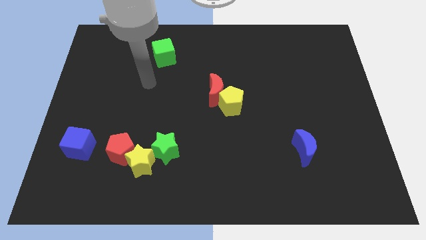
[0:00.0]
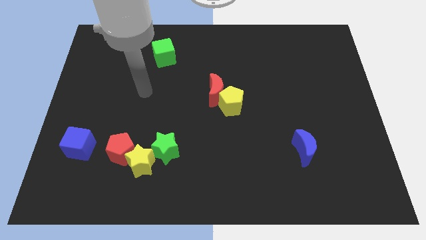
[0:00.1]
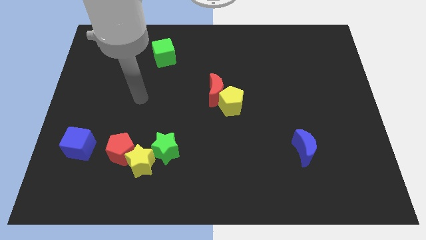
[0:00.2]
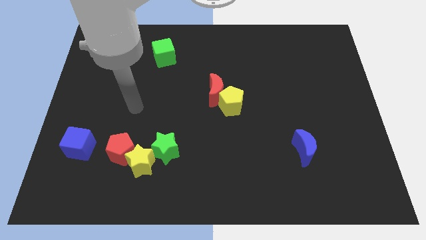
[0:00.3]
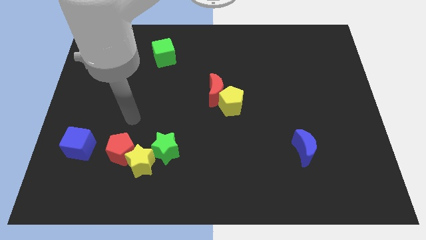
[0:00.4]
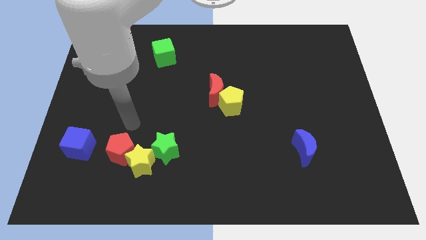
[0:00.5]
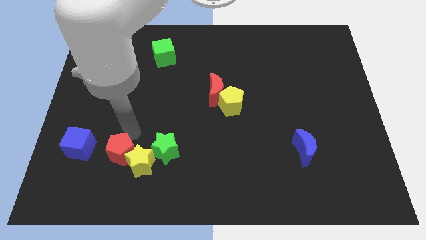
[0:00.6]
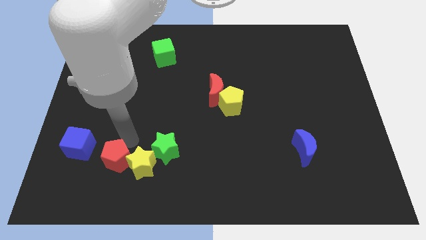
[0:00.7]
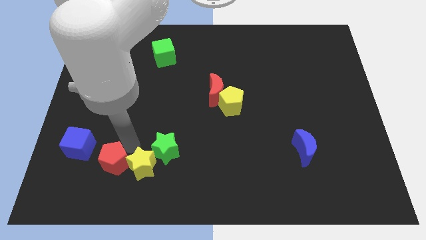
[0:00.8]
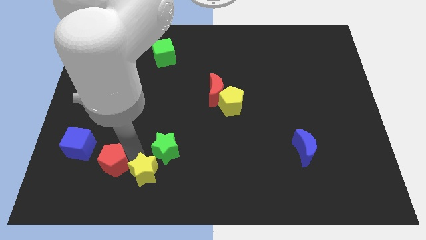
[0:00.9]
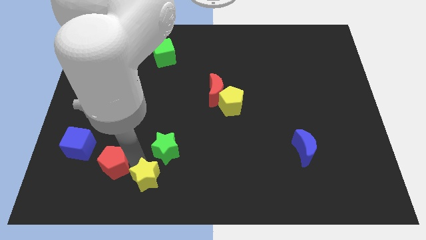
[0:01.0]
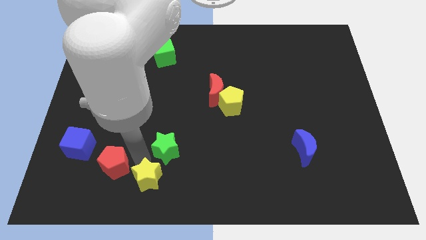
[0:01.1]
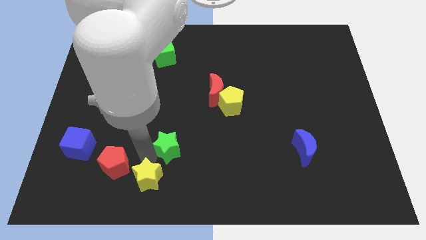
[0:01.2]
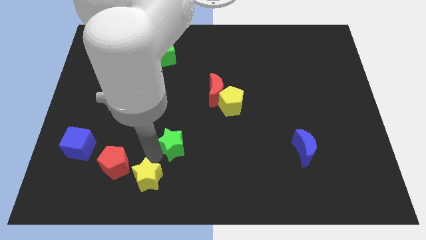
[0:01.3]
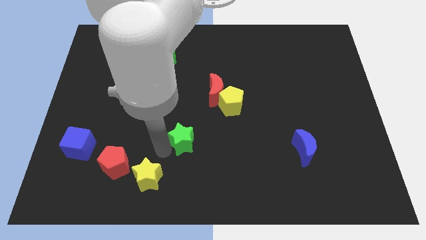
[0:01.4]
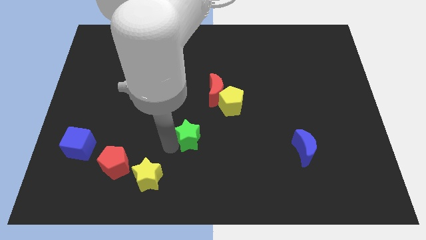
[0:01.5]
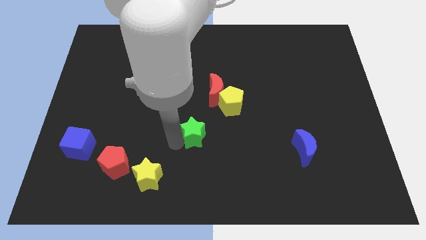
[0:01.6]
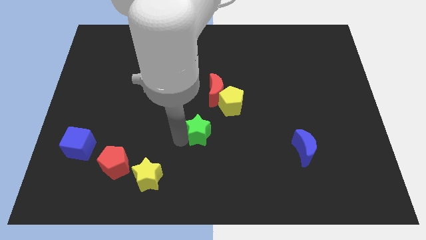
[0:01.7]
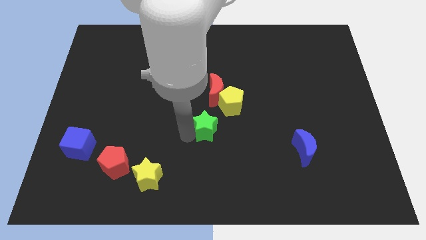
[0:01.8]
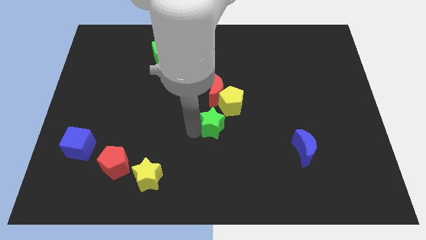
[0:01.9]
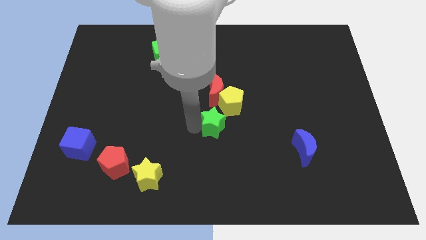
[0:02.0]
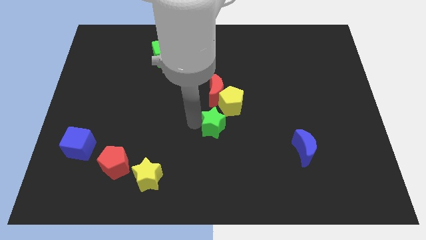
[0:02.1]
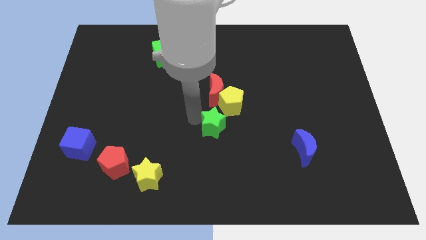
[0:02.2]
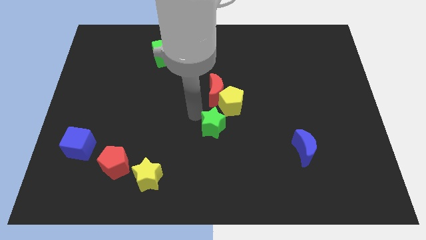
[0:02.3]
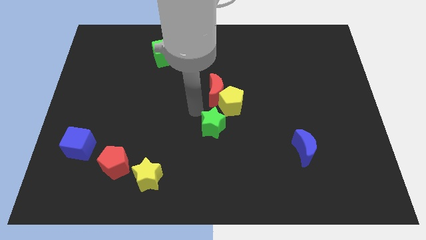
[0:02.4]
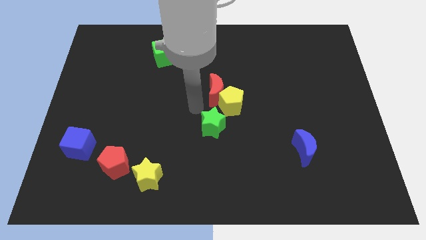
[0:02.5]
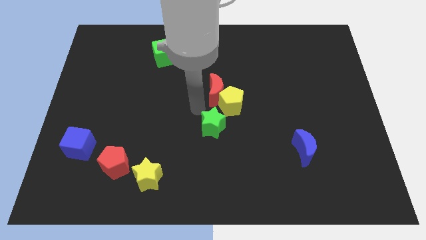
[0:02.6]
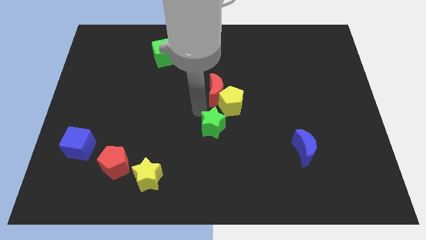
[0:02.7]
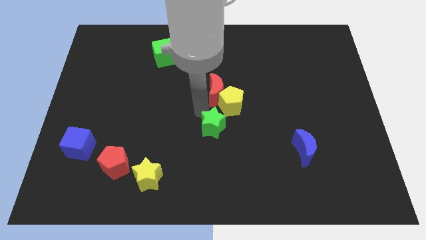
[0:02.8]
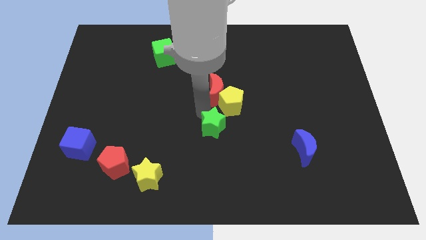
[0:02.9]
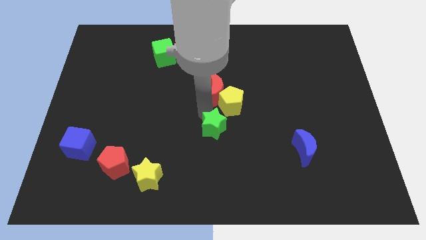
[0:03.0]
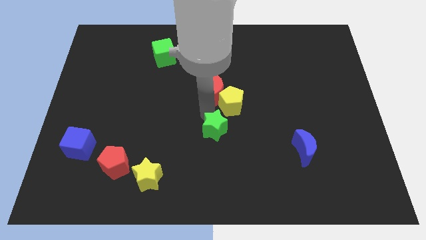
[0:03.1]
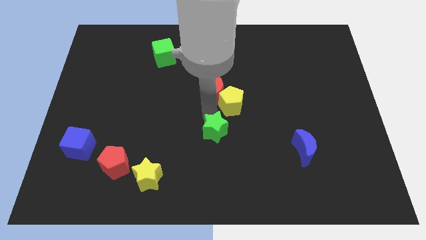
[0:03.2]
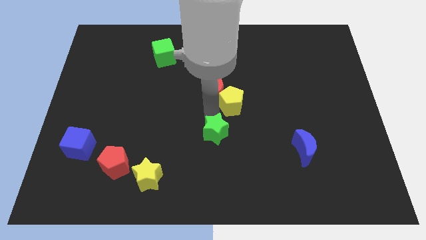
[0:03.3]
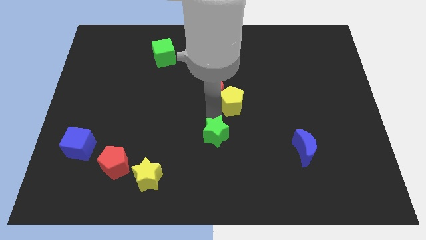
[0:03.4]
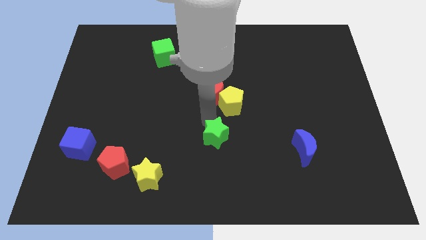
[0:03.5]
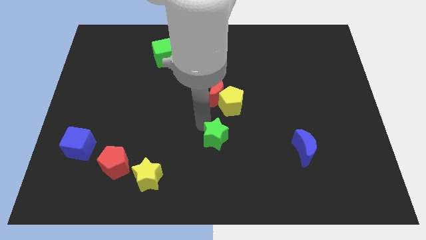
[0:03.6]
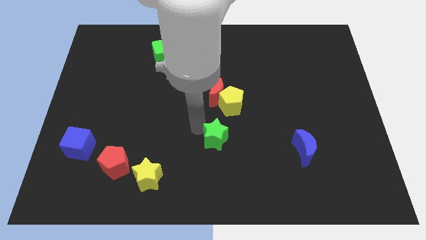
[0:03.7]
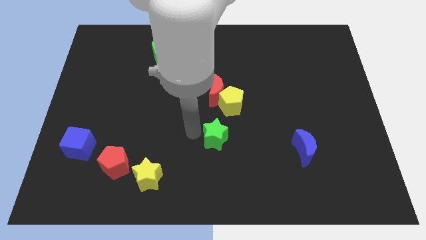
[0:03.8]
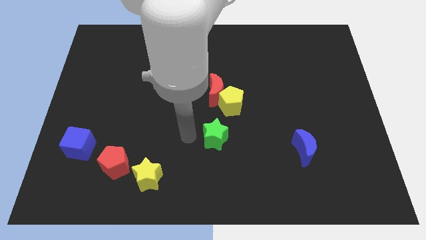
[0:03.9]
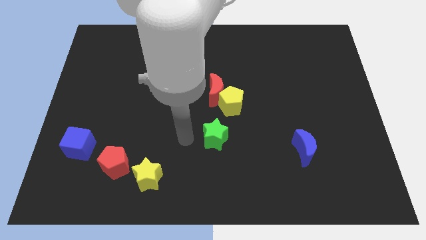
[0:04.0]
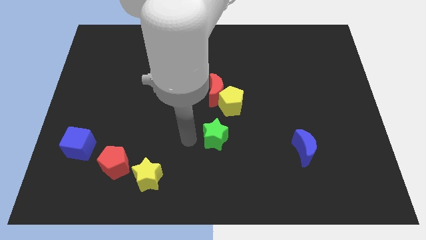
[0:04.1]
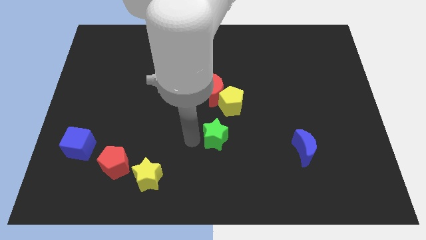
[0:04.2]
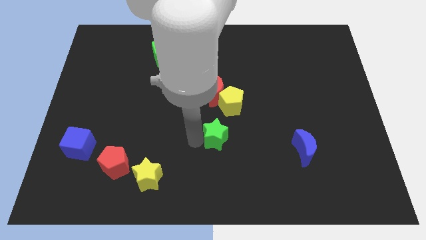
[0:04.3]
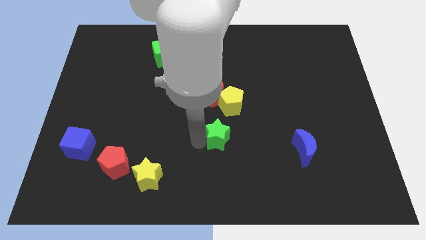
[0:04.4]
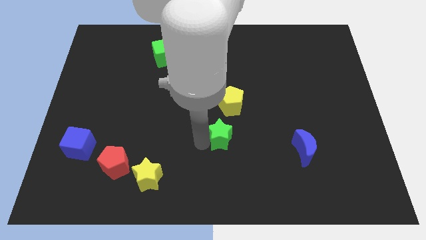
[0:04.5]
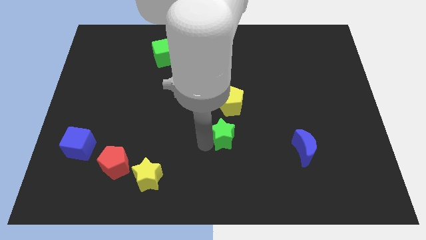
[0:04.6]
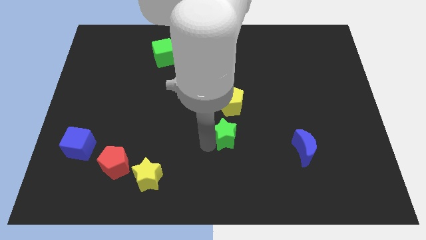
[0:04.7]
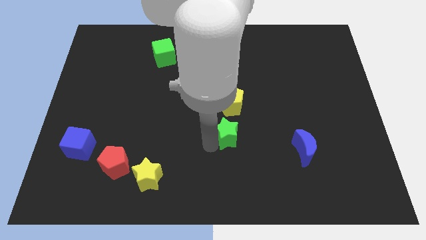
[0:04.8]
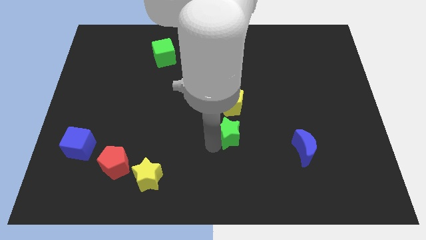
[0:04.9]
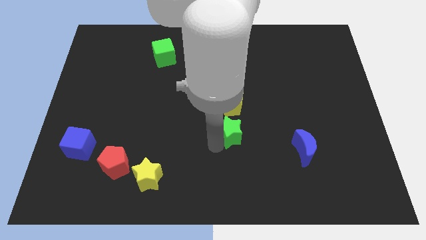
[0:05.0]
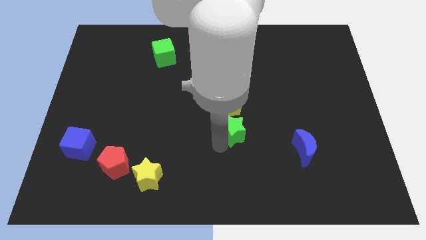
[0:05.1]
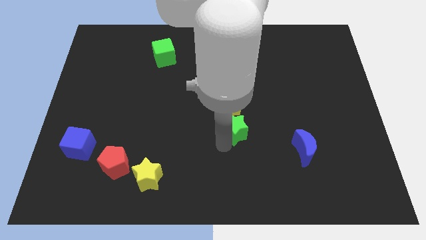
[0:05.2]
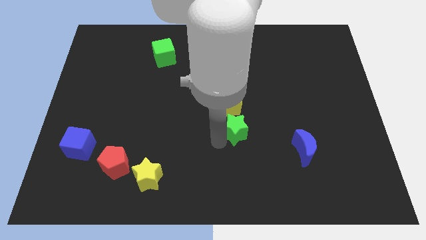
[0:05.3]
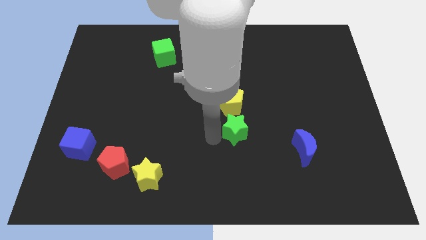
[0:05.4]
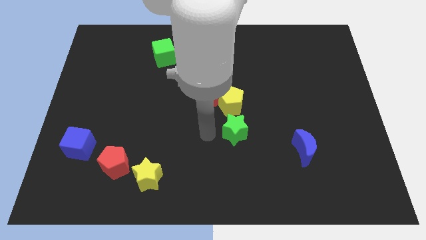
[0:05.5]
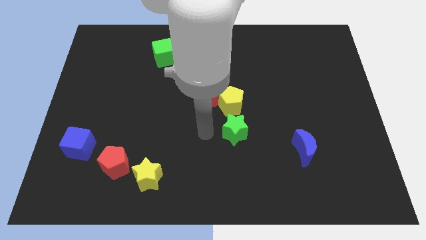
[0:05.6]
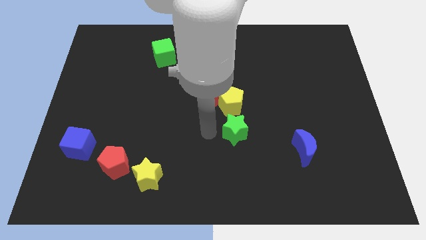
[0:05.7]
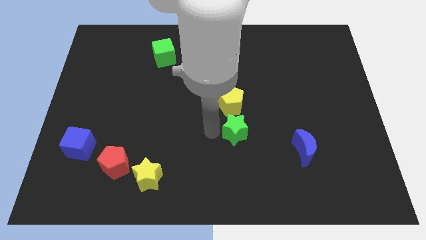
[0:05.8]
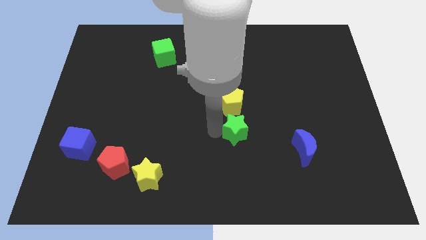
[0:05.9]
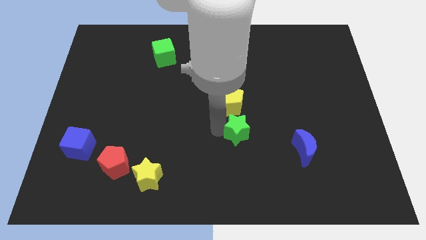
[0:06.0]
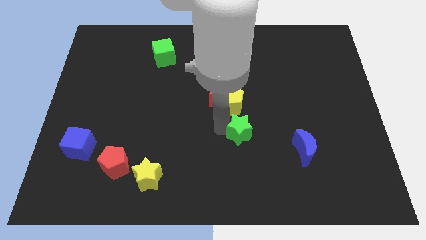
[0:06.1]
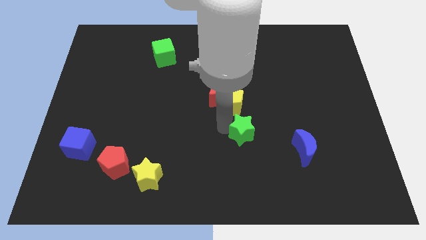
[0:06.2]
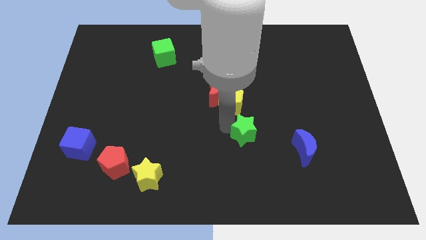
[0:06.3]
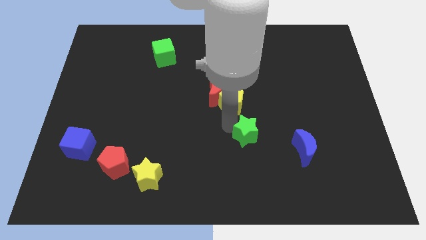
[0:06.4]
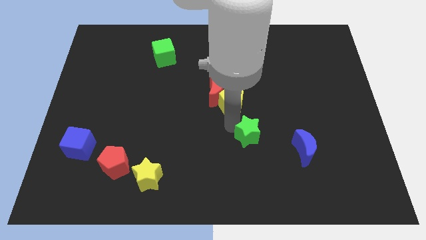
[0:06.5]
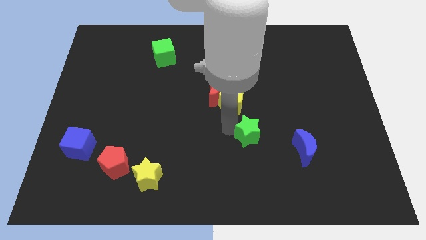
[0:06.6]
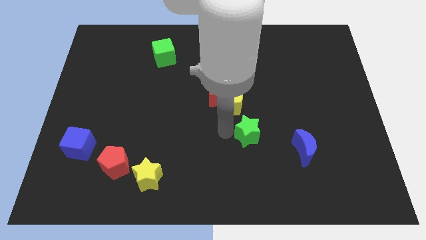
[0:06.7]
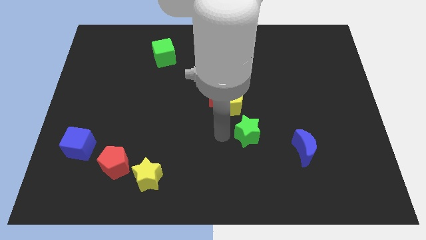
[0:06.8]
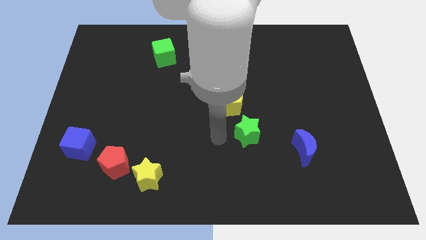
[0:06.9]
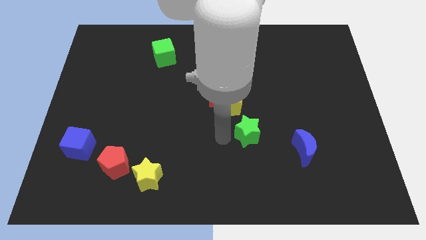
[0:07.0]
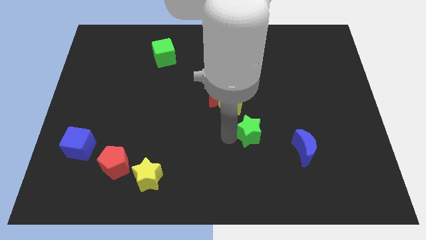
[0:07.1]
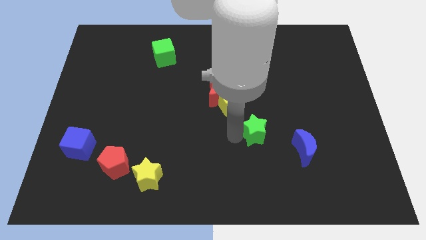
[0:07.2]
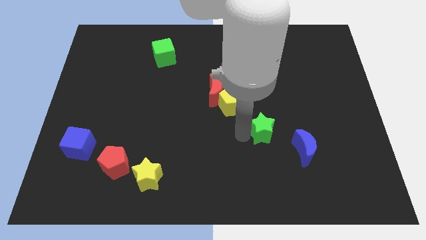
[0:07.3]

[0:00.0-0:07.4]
move the green star to the top left side of the blue moon

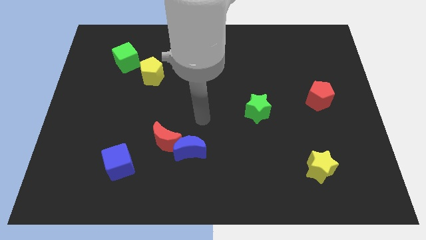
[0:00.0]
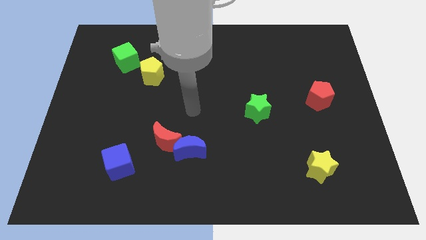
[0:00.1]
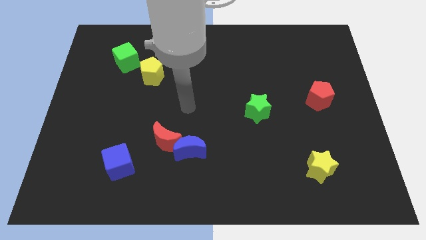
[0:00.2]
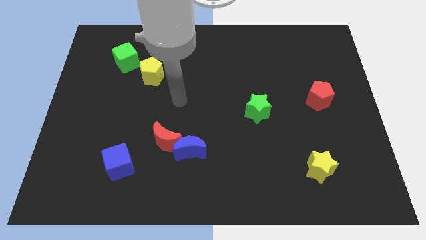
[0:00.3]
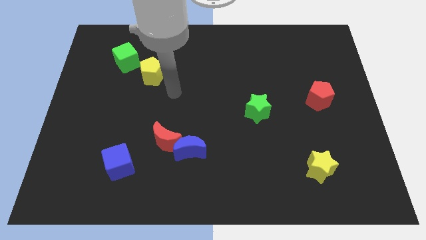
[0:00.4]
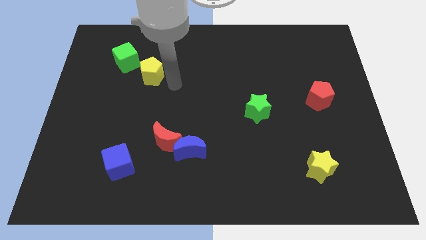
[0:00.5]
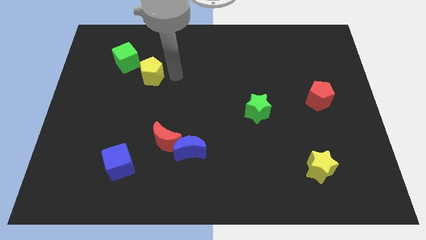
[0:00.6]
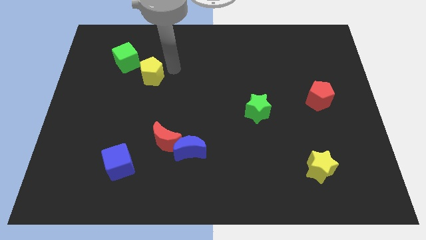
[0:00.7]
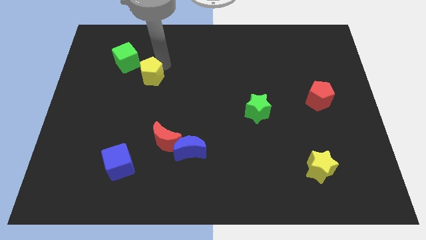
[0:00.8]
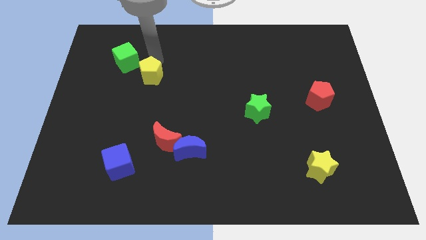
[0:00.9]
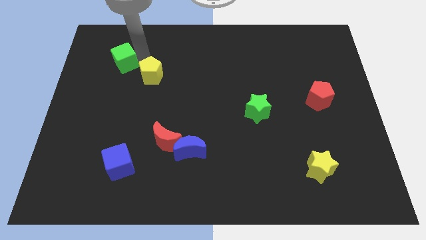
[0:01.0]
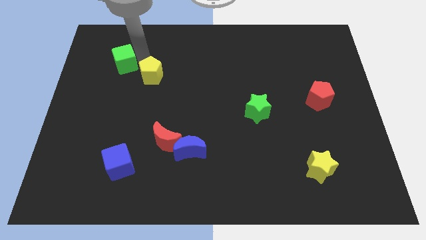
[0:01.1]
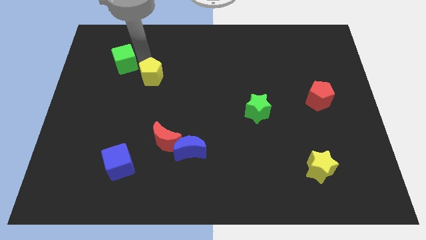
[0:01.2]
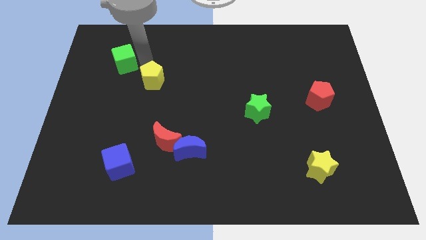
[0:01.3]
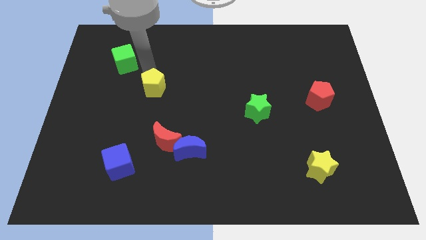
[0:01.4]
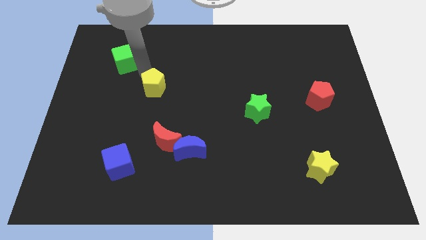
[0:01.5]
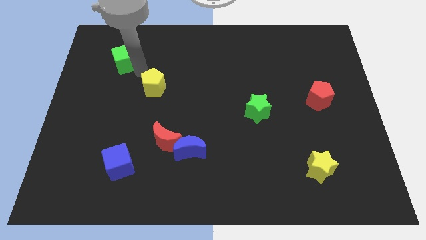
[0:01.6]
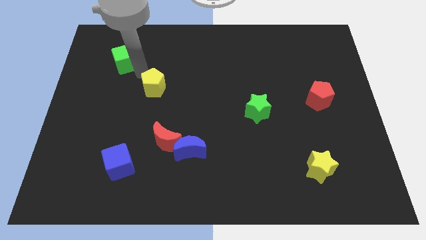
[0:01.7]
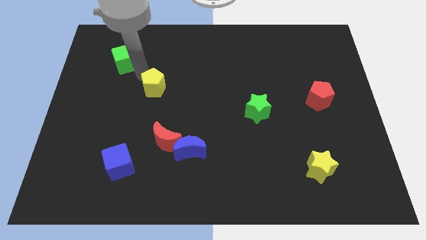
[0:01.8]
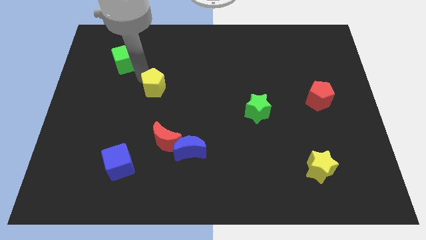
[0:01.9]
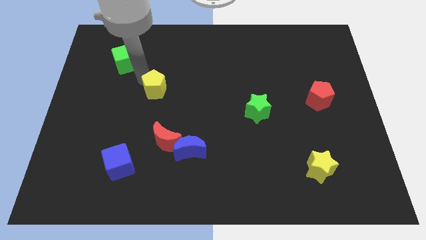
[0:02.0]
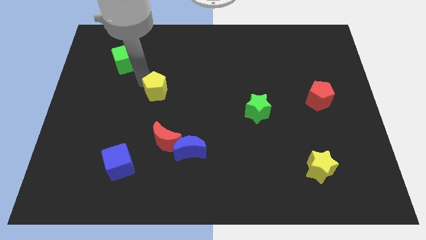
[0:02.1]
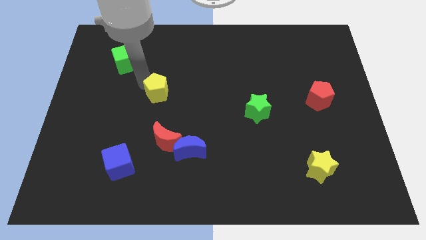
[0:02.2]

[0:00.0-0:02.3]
slide the yellow pentagon above the red moon
